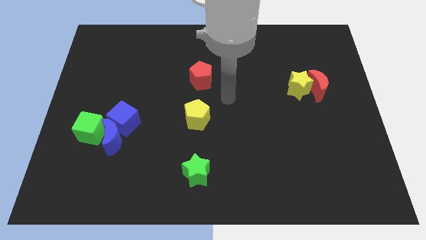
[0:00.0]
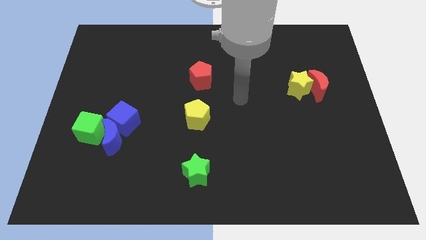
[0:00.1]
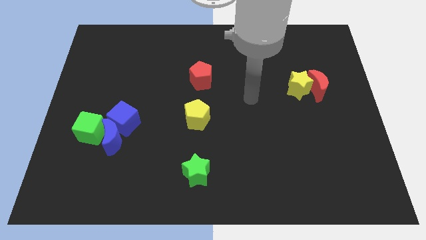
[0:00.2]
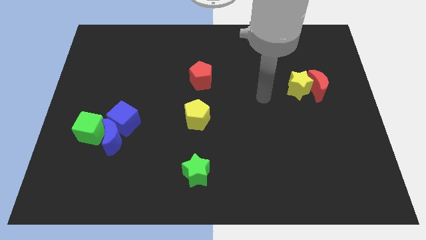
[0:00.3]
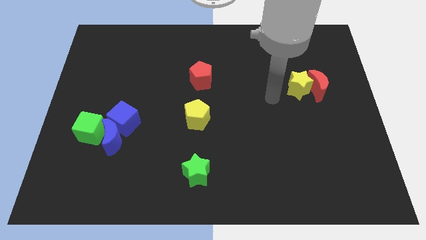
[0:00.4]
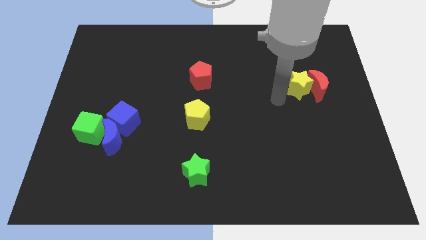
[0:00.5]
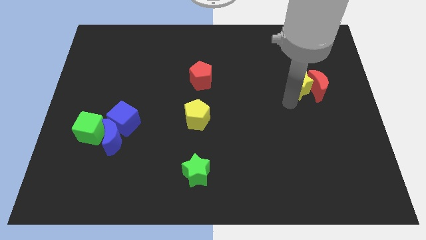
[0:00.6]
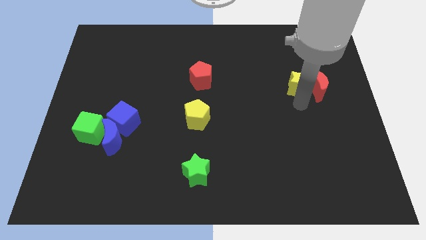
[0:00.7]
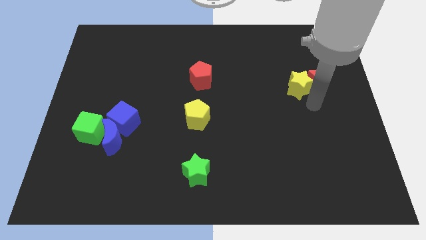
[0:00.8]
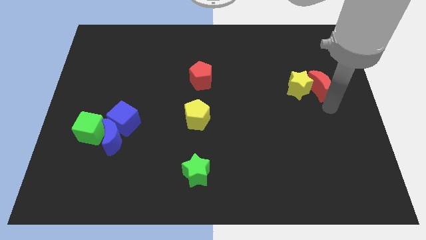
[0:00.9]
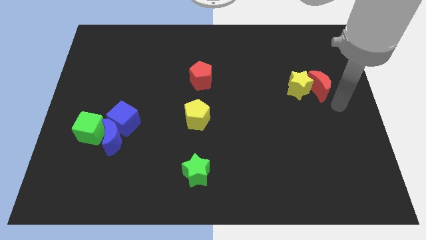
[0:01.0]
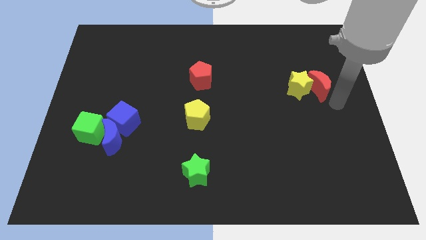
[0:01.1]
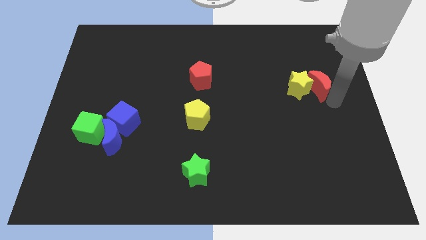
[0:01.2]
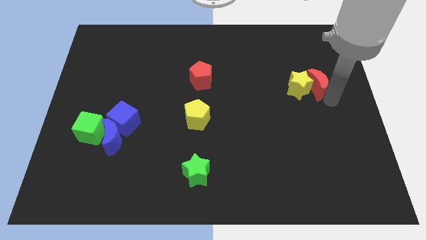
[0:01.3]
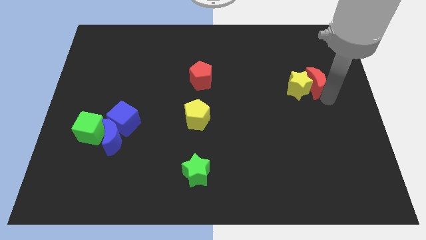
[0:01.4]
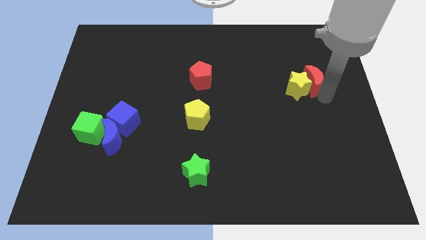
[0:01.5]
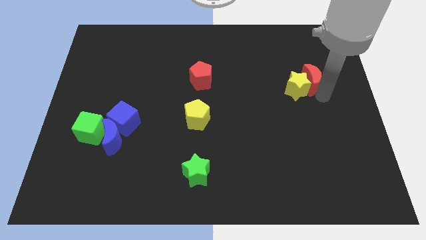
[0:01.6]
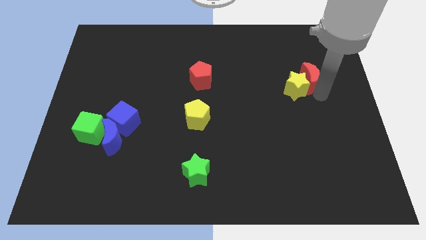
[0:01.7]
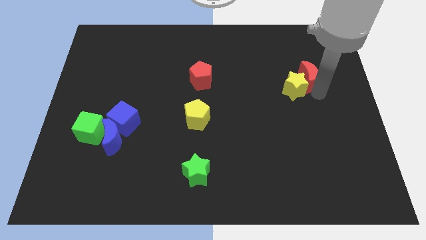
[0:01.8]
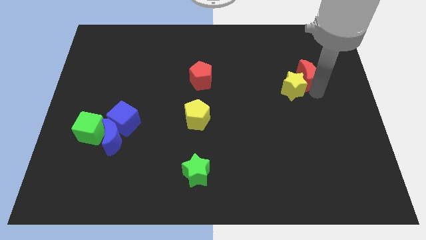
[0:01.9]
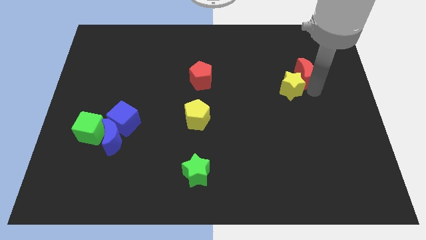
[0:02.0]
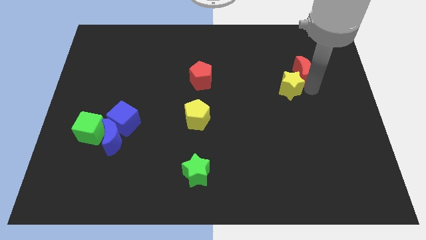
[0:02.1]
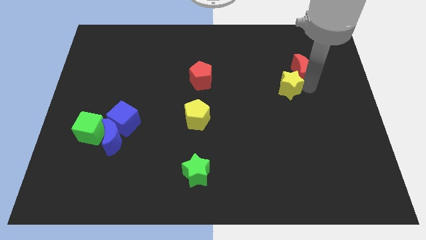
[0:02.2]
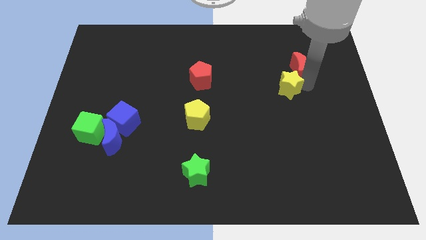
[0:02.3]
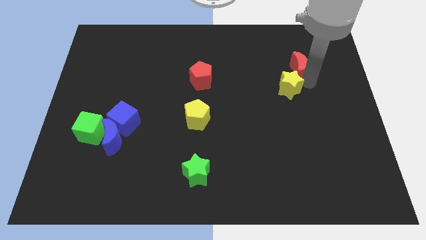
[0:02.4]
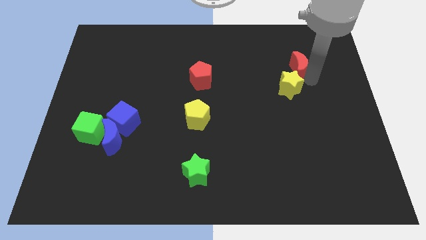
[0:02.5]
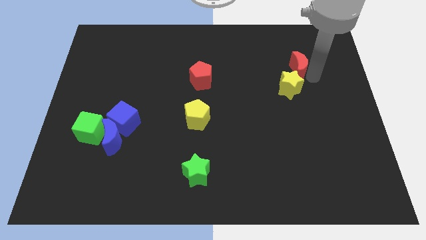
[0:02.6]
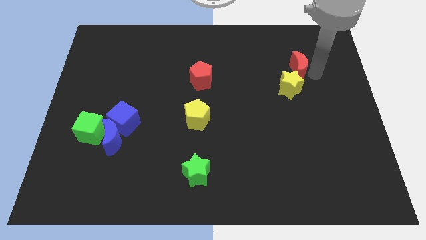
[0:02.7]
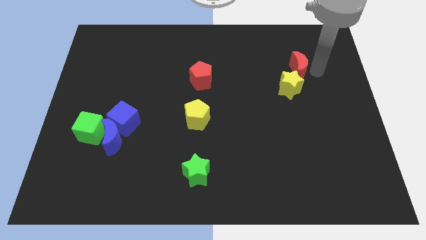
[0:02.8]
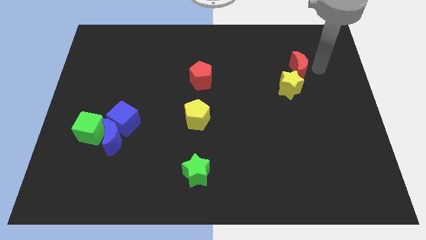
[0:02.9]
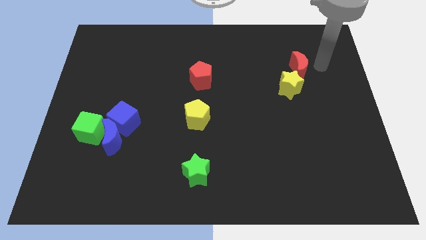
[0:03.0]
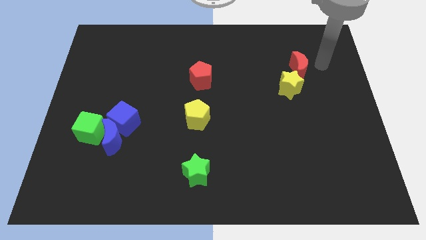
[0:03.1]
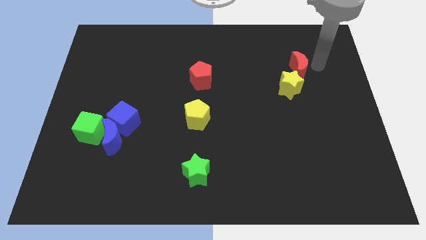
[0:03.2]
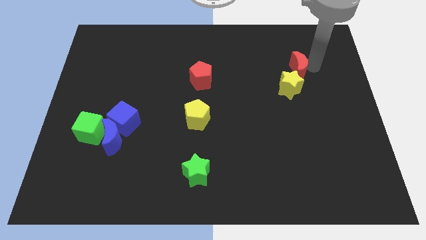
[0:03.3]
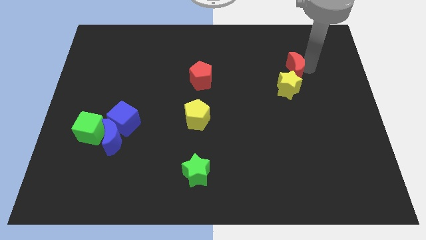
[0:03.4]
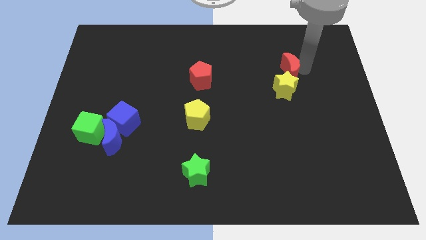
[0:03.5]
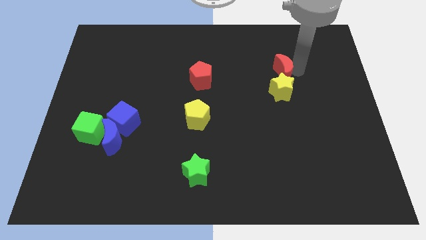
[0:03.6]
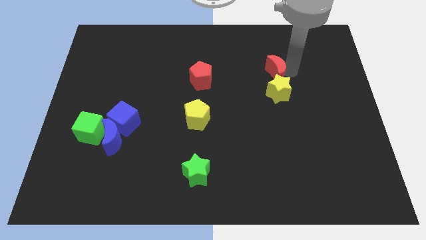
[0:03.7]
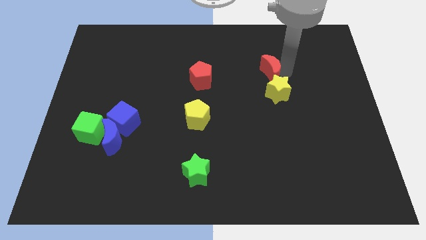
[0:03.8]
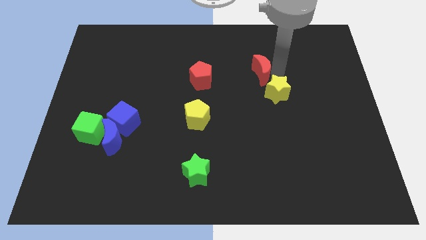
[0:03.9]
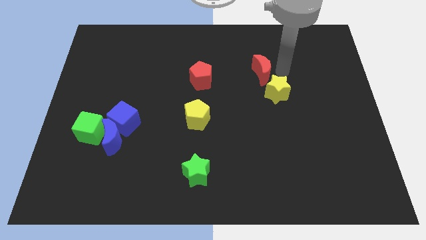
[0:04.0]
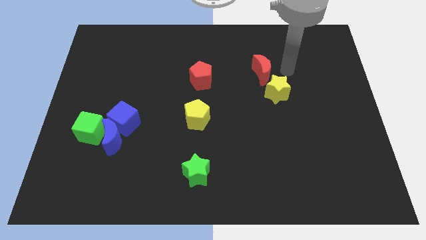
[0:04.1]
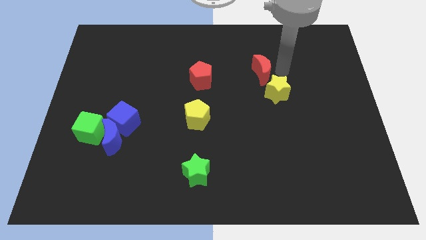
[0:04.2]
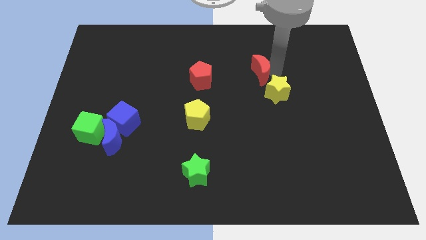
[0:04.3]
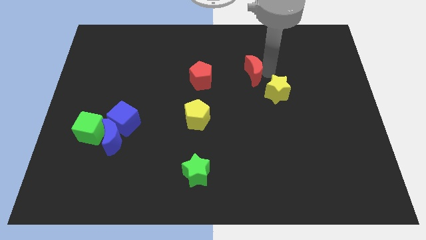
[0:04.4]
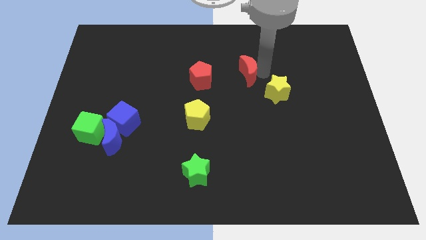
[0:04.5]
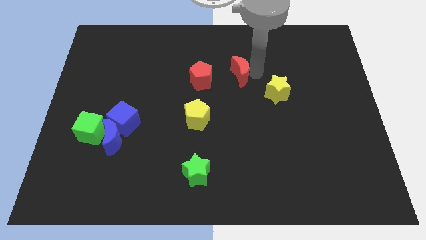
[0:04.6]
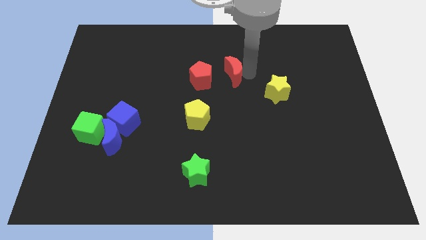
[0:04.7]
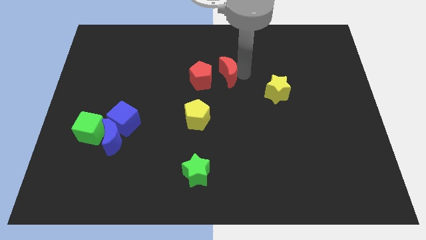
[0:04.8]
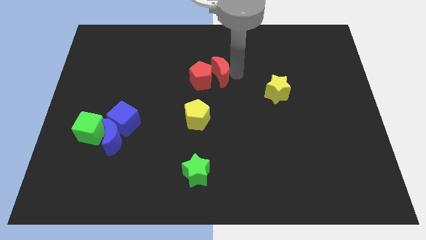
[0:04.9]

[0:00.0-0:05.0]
put the red moon close to the red pentagon
